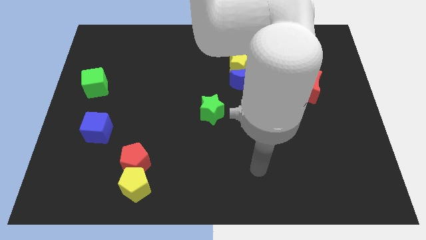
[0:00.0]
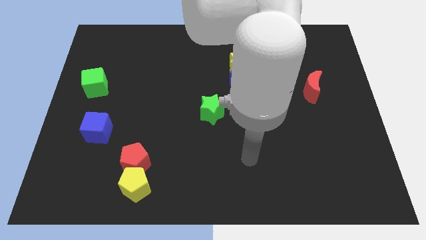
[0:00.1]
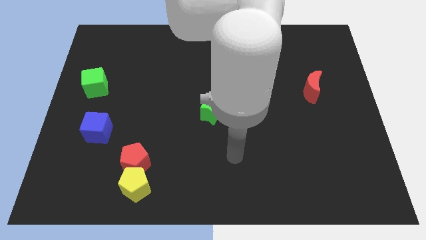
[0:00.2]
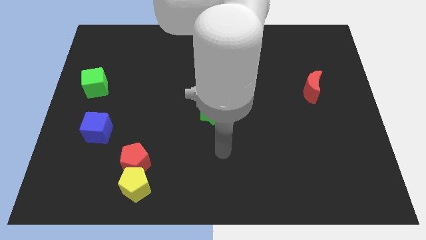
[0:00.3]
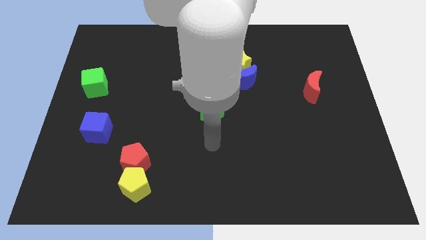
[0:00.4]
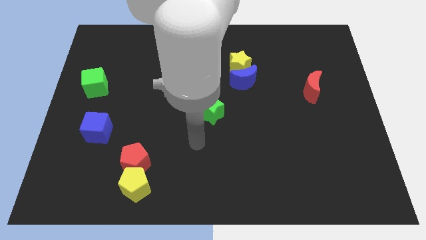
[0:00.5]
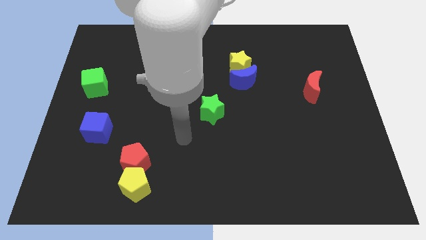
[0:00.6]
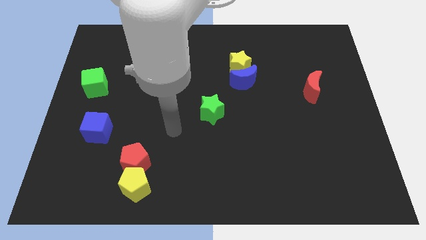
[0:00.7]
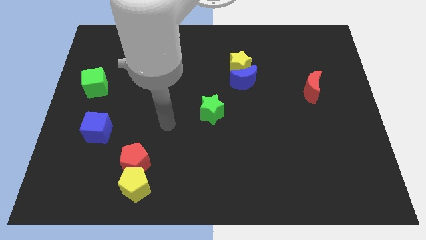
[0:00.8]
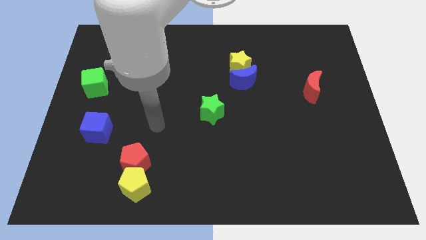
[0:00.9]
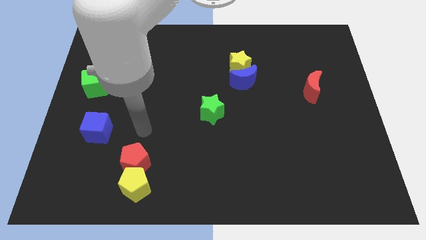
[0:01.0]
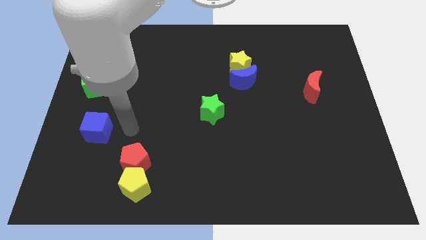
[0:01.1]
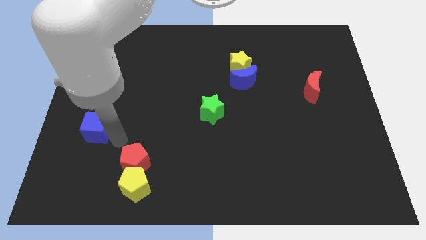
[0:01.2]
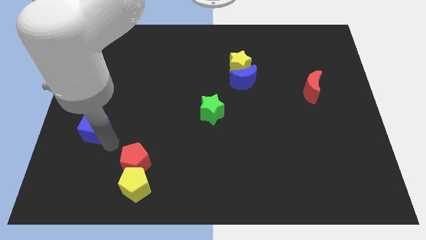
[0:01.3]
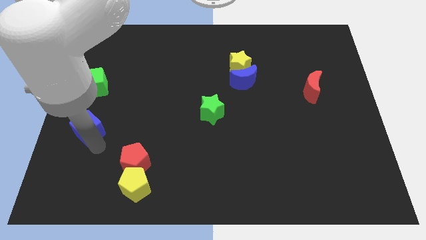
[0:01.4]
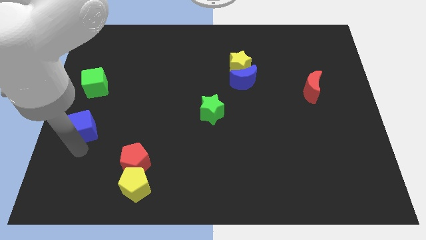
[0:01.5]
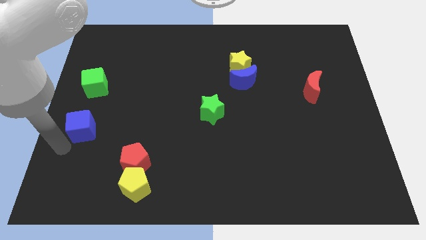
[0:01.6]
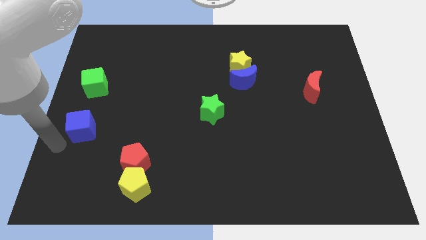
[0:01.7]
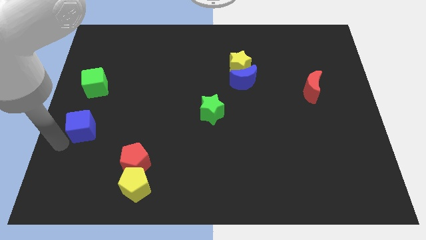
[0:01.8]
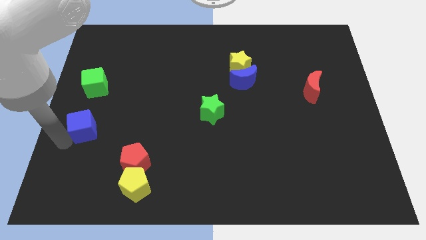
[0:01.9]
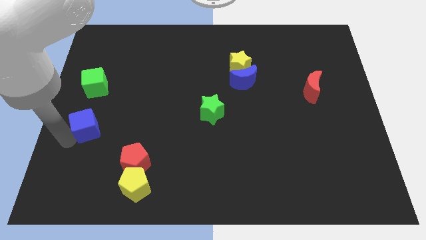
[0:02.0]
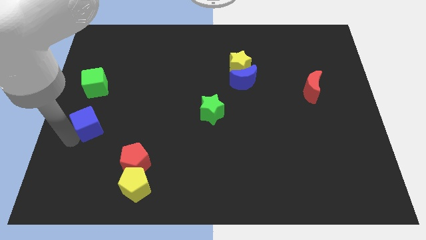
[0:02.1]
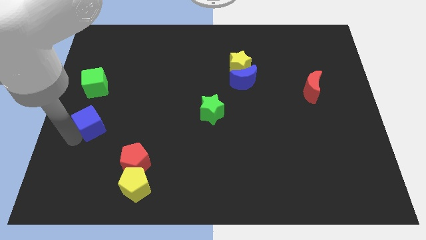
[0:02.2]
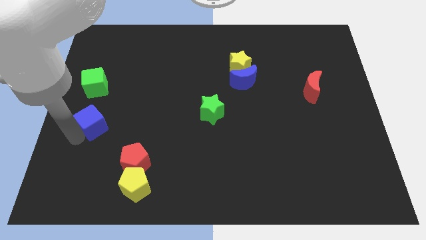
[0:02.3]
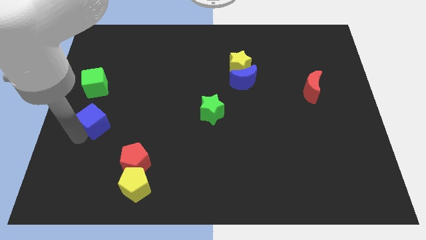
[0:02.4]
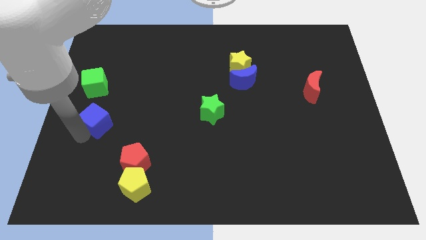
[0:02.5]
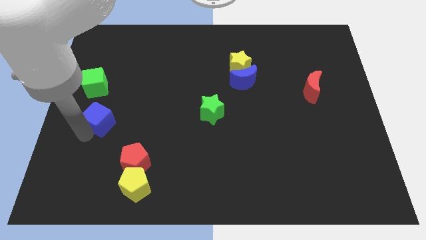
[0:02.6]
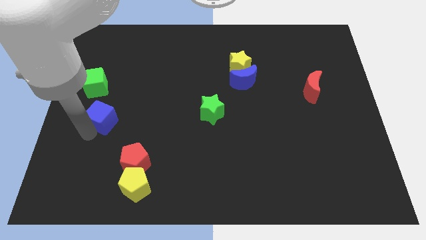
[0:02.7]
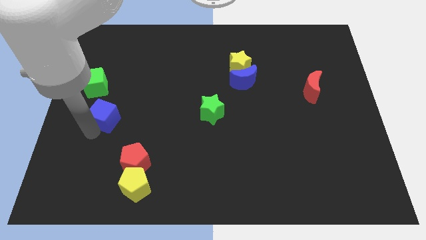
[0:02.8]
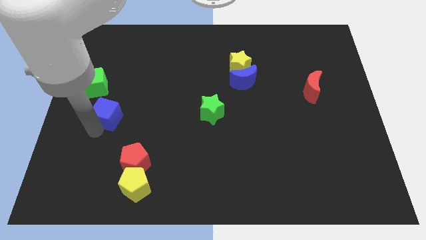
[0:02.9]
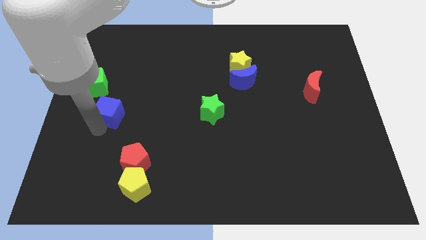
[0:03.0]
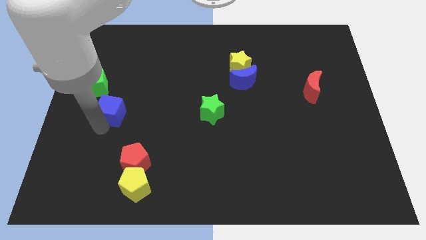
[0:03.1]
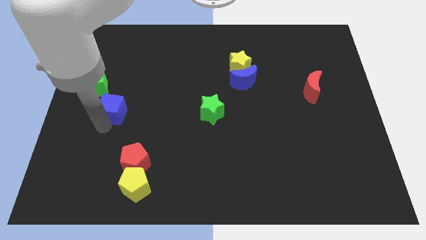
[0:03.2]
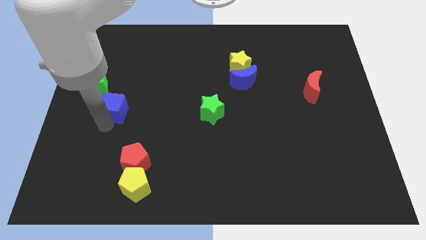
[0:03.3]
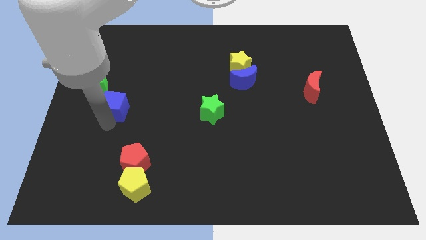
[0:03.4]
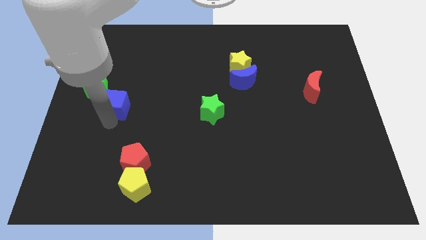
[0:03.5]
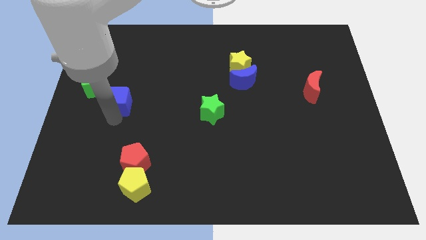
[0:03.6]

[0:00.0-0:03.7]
slide the blue cube a little bit up

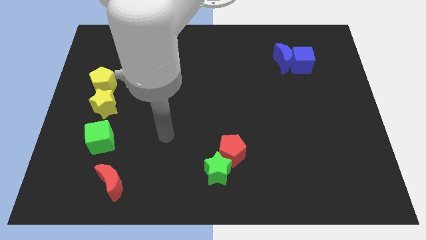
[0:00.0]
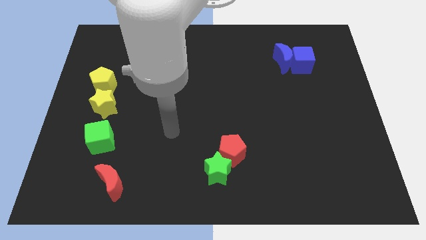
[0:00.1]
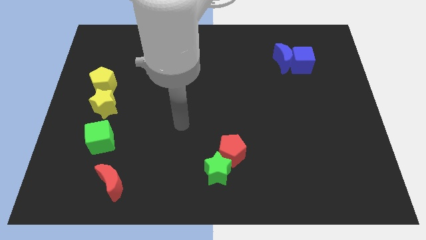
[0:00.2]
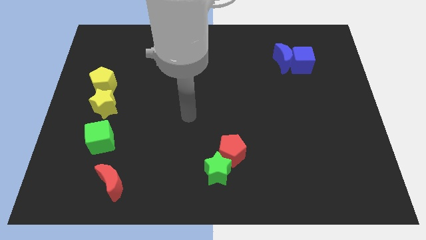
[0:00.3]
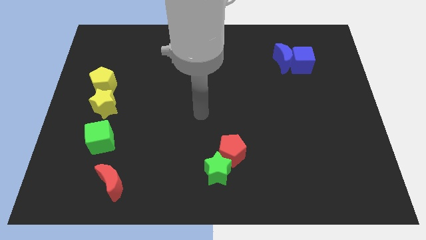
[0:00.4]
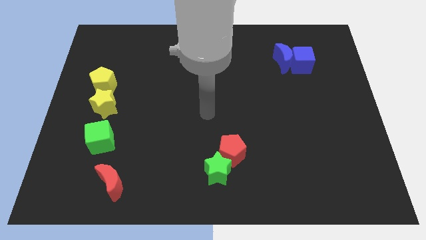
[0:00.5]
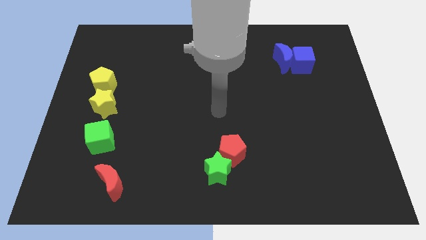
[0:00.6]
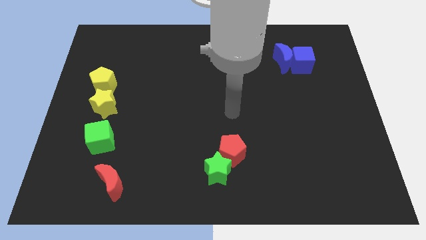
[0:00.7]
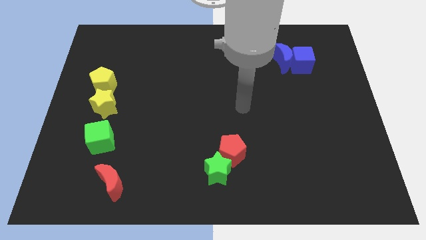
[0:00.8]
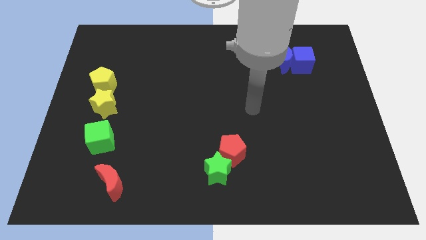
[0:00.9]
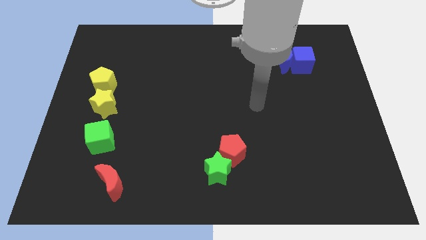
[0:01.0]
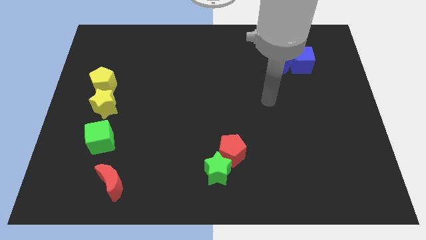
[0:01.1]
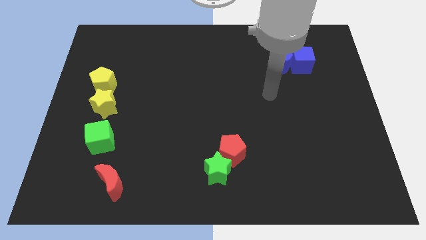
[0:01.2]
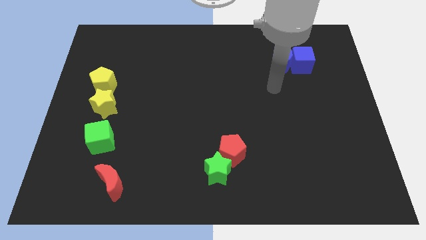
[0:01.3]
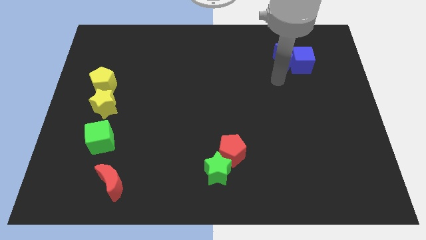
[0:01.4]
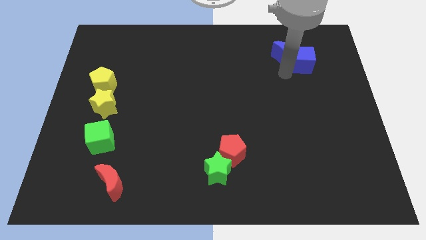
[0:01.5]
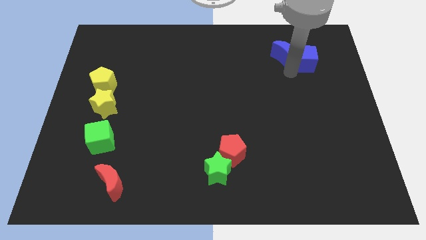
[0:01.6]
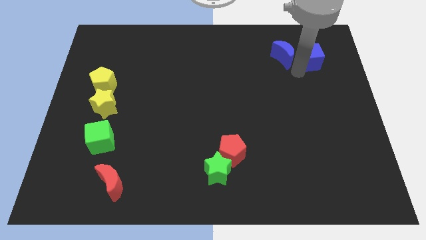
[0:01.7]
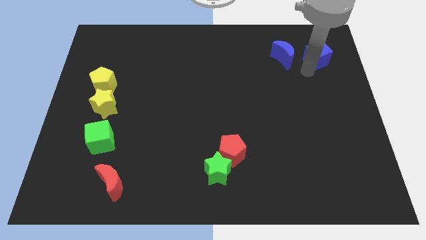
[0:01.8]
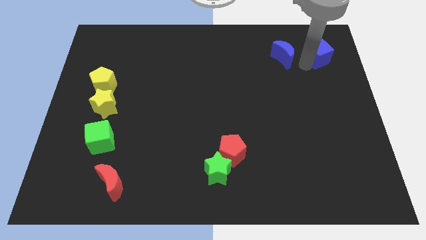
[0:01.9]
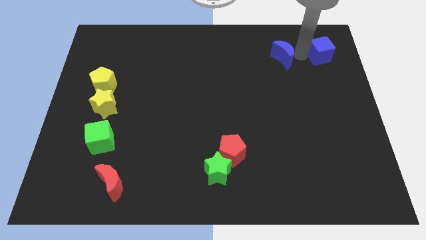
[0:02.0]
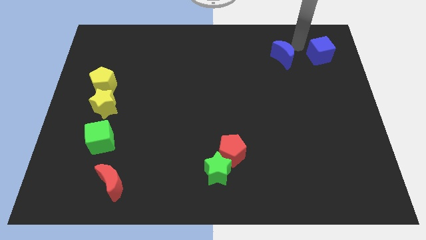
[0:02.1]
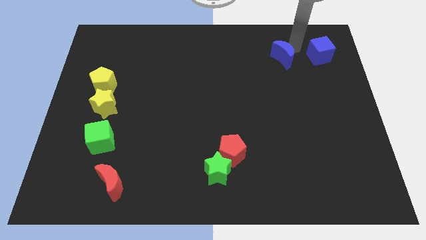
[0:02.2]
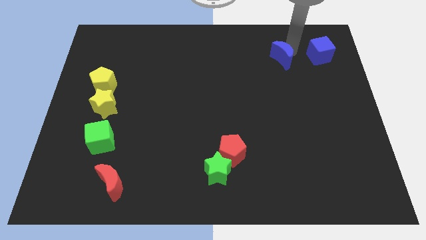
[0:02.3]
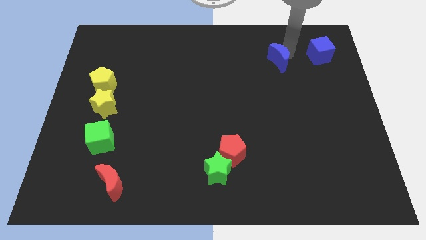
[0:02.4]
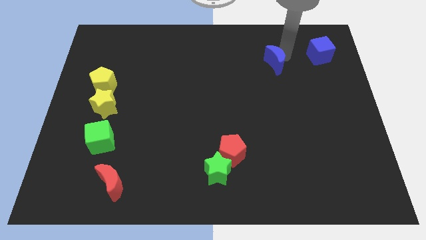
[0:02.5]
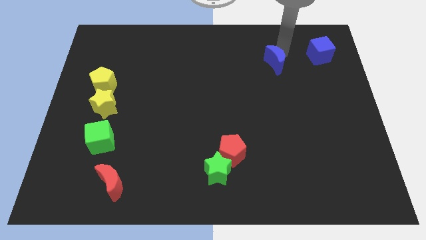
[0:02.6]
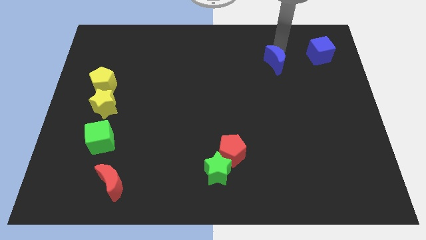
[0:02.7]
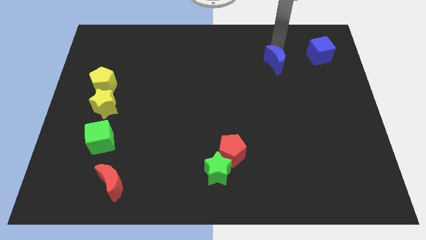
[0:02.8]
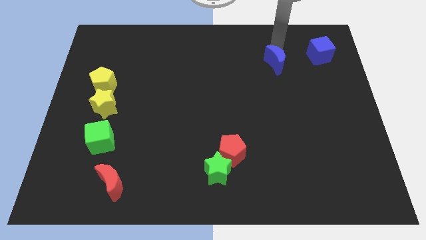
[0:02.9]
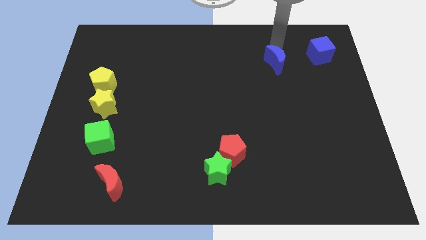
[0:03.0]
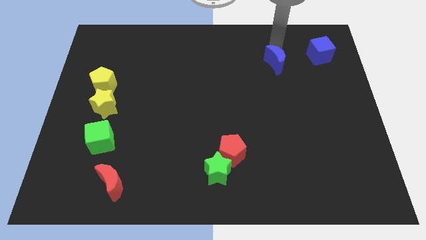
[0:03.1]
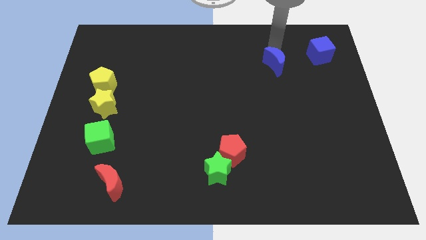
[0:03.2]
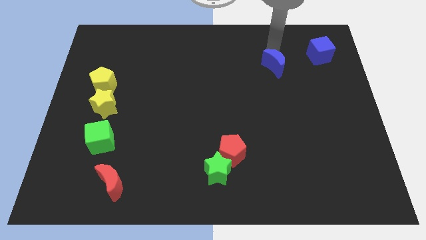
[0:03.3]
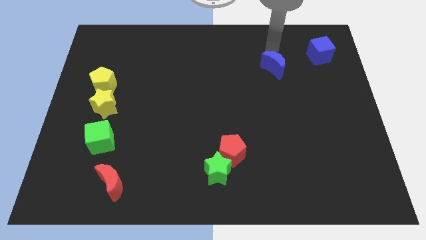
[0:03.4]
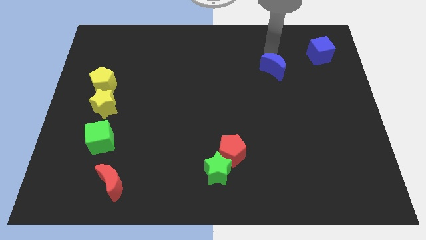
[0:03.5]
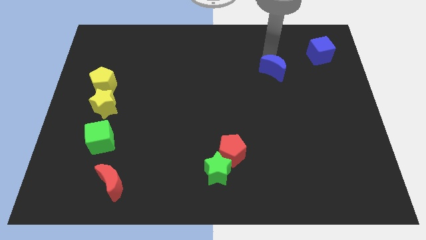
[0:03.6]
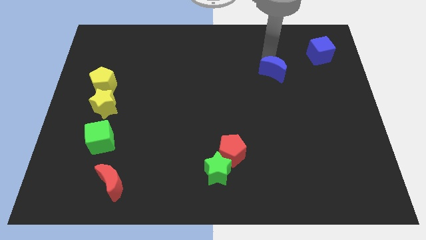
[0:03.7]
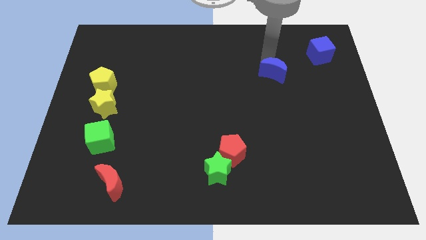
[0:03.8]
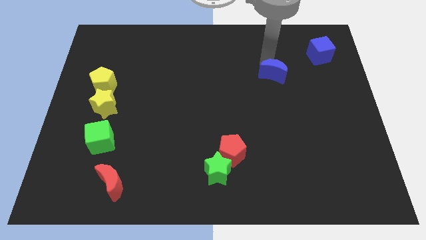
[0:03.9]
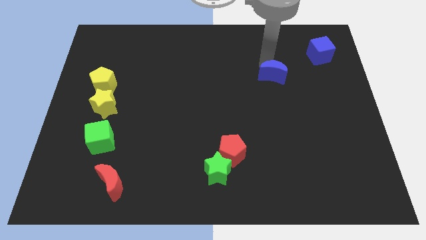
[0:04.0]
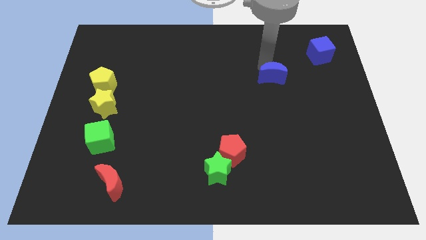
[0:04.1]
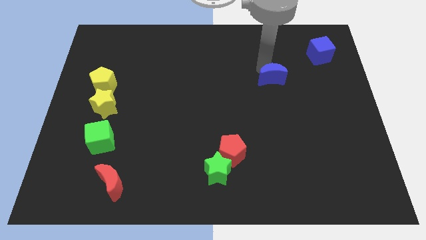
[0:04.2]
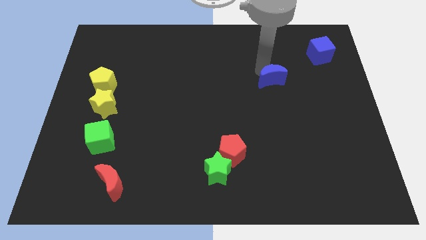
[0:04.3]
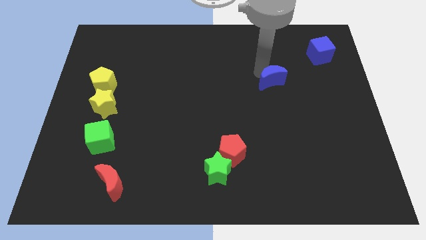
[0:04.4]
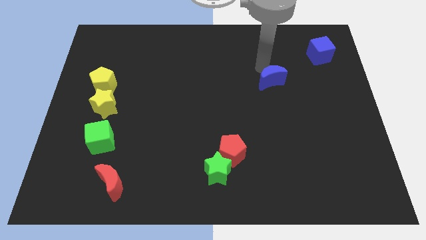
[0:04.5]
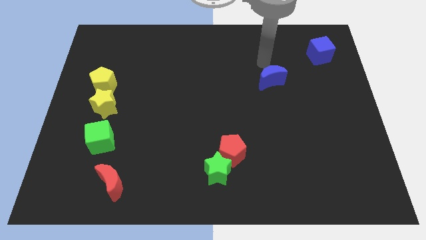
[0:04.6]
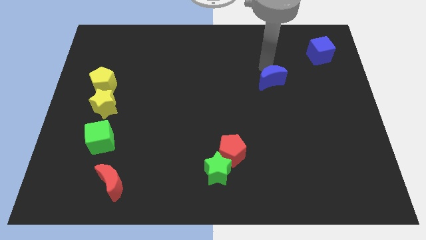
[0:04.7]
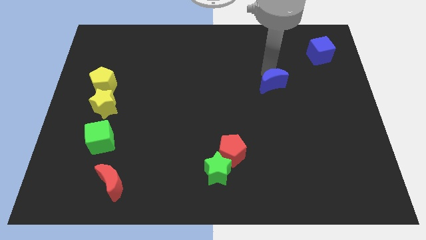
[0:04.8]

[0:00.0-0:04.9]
slide the blue moon downwards a little bit
